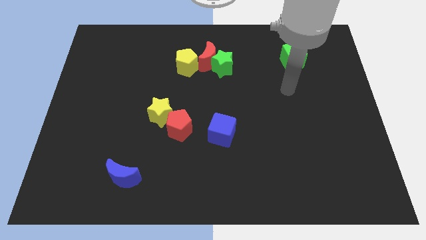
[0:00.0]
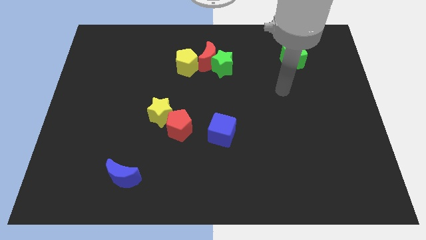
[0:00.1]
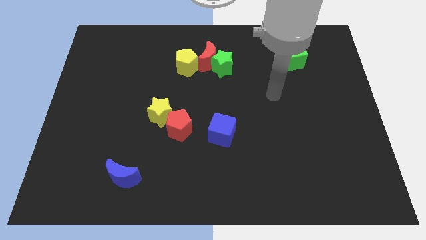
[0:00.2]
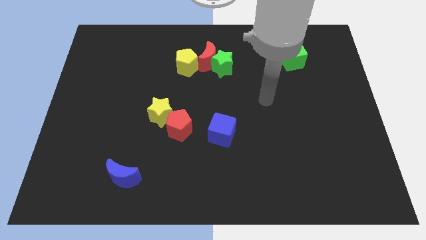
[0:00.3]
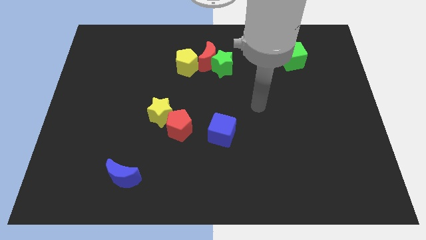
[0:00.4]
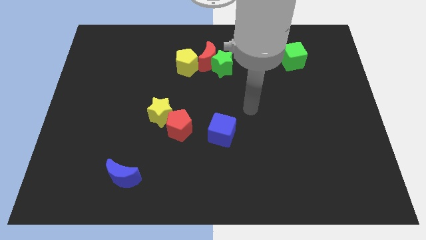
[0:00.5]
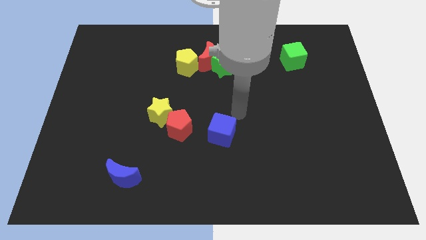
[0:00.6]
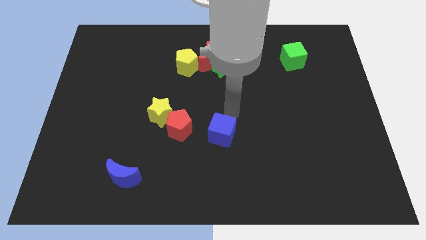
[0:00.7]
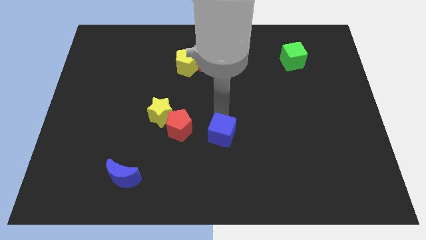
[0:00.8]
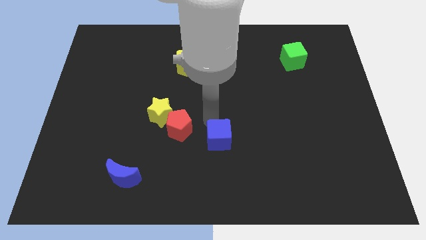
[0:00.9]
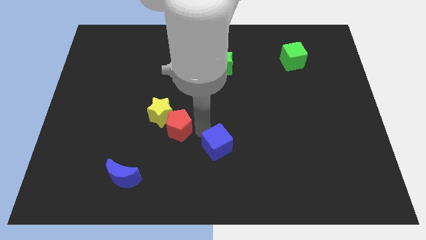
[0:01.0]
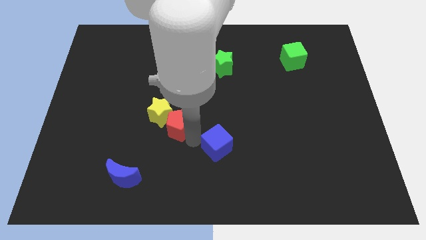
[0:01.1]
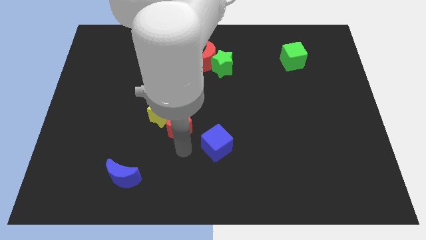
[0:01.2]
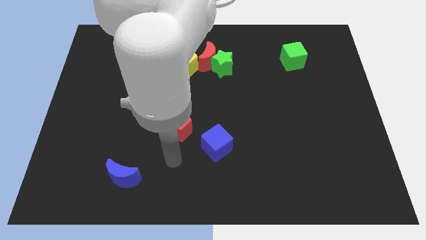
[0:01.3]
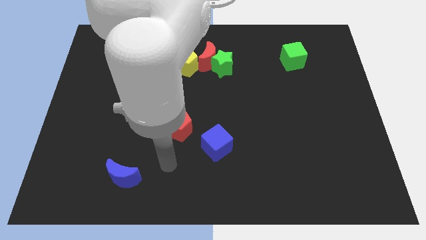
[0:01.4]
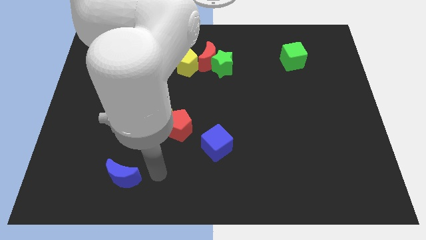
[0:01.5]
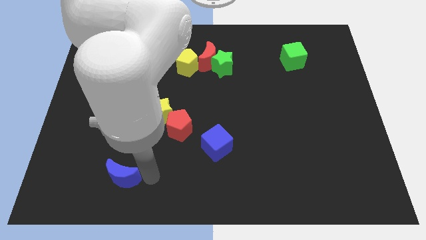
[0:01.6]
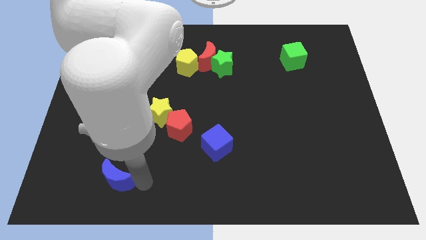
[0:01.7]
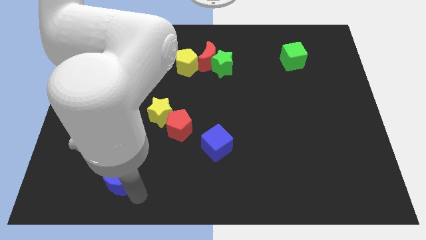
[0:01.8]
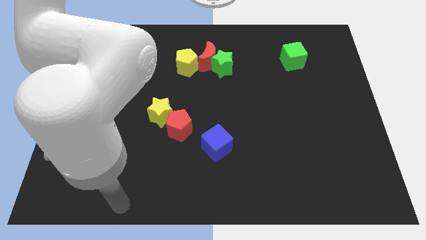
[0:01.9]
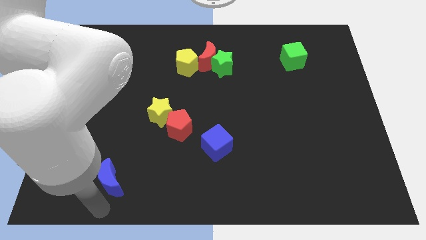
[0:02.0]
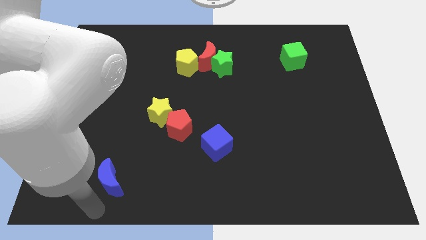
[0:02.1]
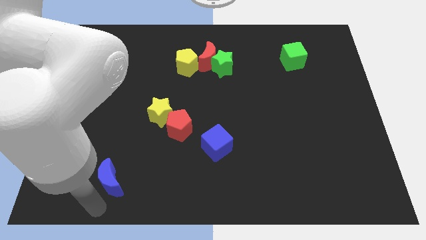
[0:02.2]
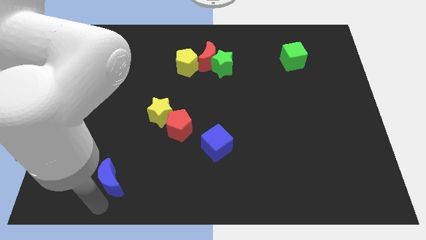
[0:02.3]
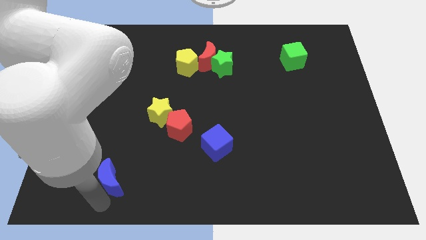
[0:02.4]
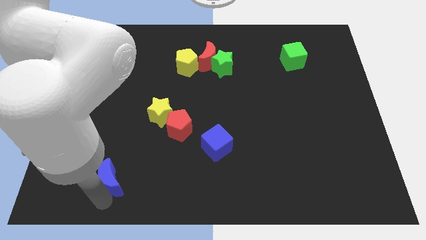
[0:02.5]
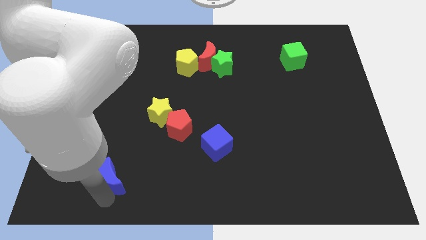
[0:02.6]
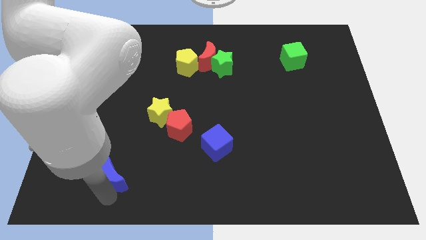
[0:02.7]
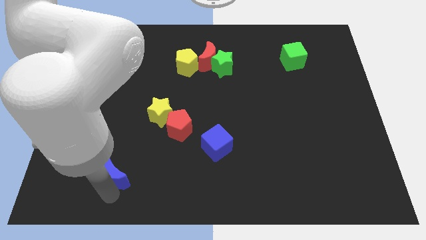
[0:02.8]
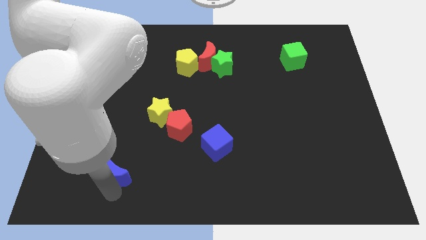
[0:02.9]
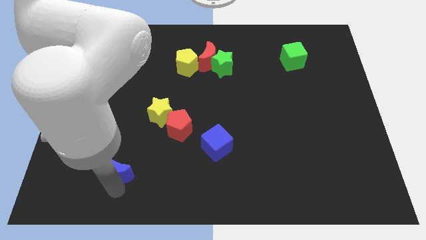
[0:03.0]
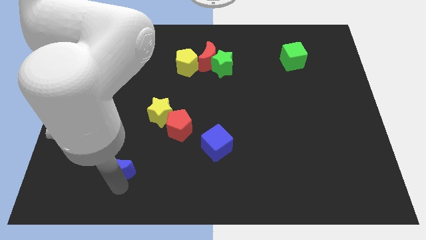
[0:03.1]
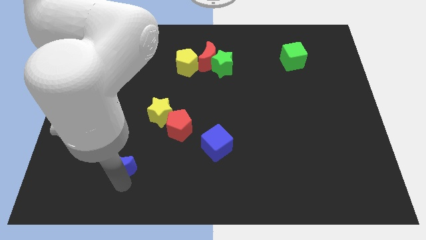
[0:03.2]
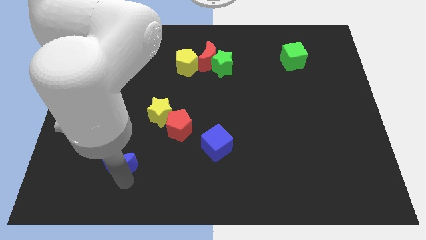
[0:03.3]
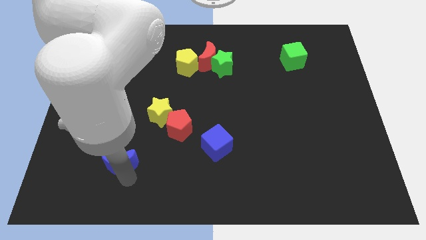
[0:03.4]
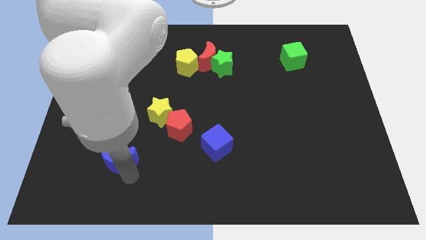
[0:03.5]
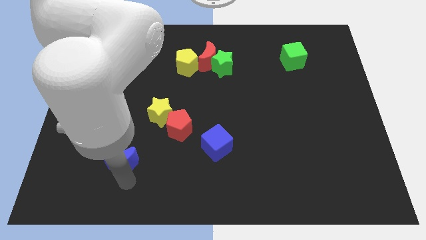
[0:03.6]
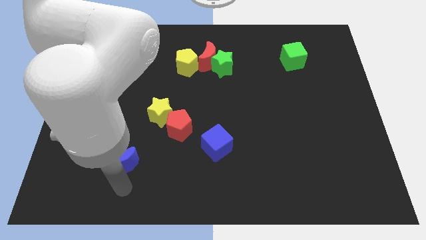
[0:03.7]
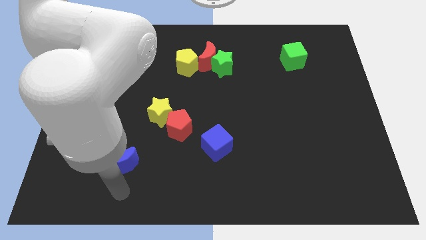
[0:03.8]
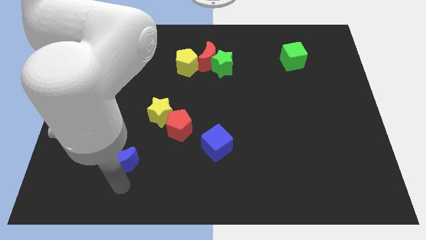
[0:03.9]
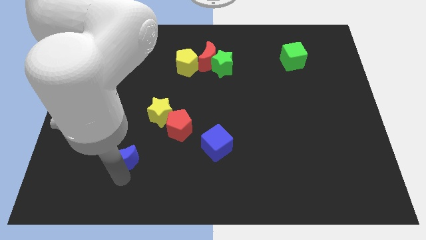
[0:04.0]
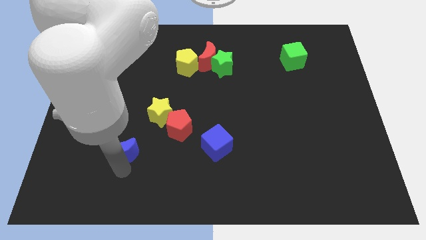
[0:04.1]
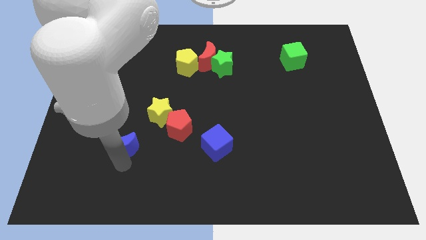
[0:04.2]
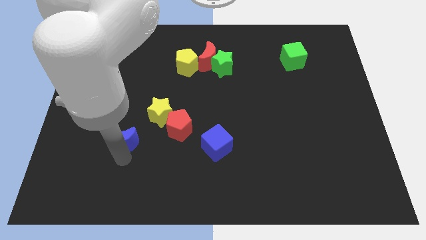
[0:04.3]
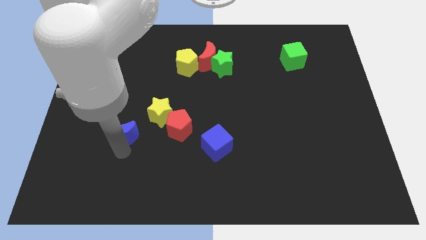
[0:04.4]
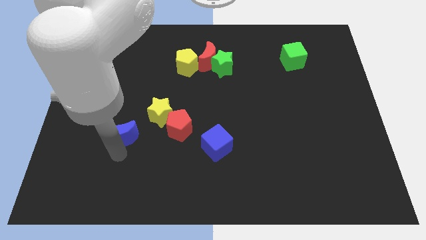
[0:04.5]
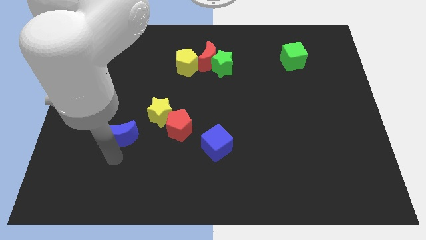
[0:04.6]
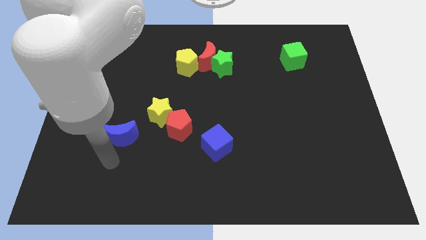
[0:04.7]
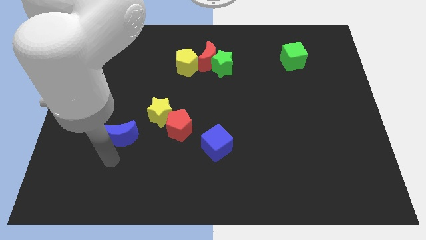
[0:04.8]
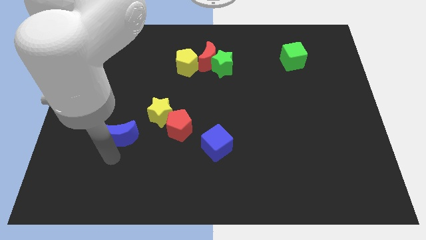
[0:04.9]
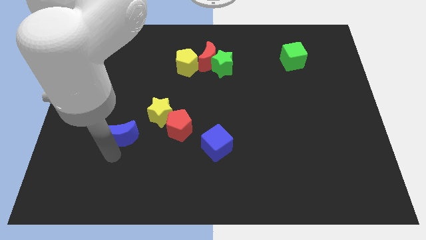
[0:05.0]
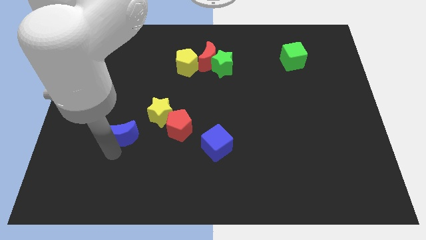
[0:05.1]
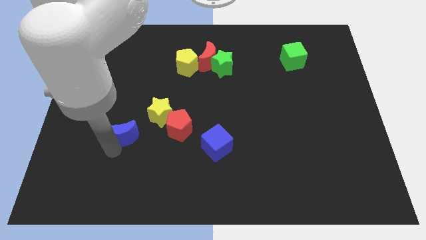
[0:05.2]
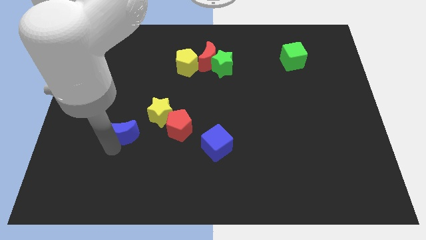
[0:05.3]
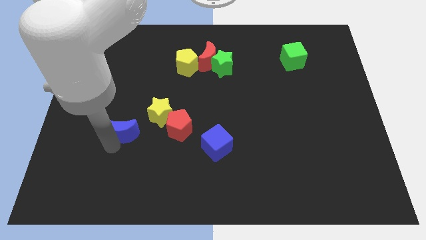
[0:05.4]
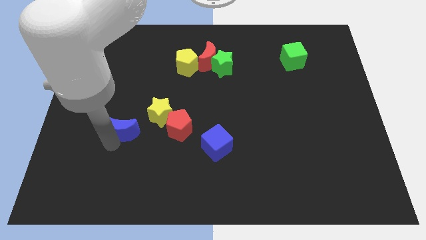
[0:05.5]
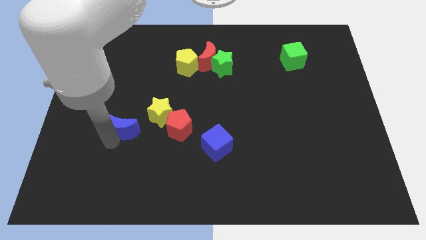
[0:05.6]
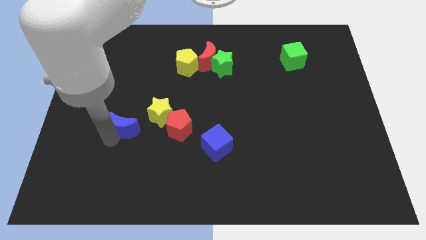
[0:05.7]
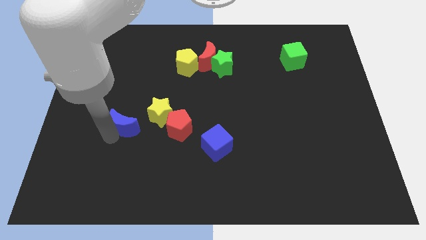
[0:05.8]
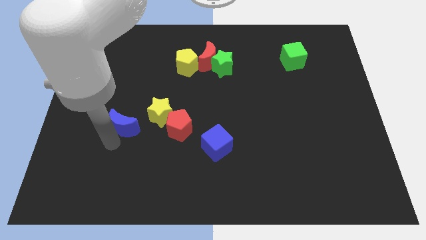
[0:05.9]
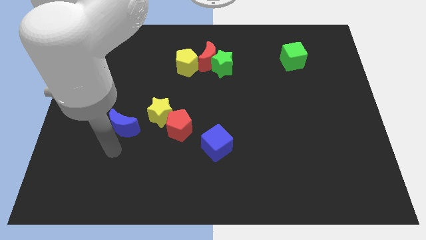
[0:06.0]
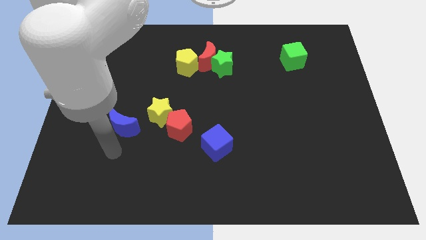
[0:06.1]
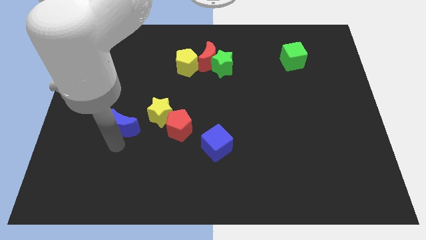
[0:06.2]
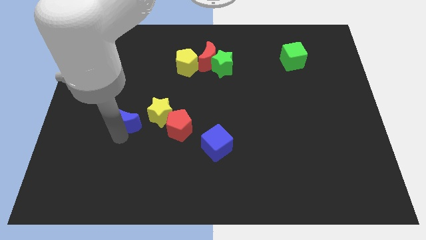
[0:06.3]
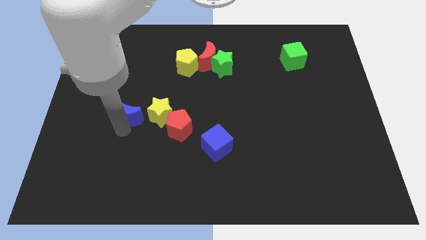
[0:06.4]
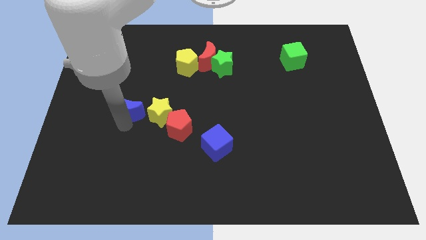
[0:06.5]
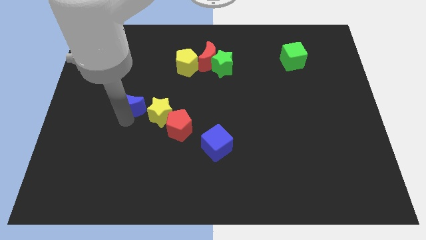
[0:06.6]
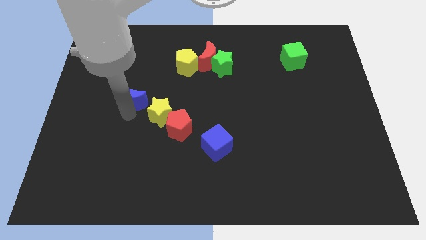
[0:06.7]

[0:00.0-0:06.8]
slide the blue moon up

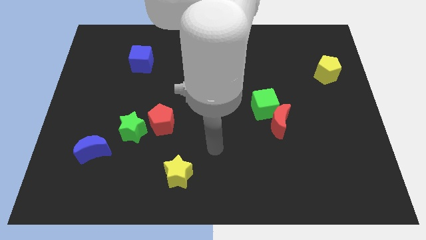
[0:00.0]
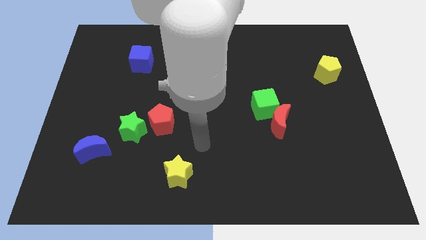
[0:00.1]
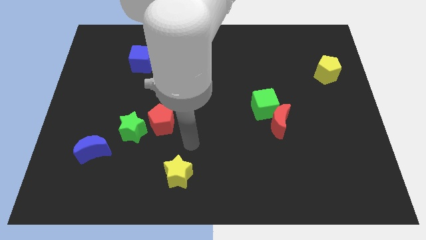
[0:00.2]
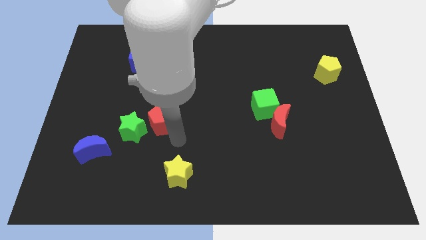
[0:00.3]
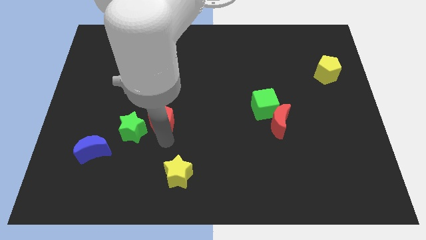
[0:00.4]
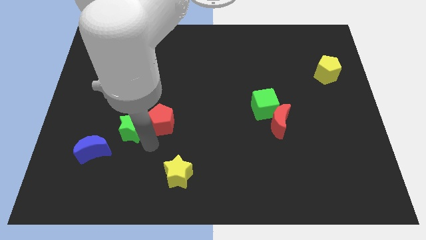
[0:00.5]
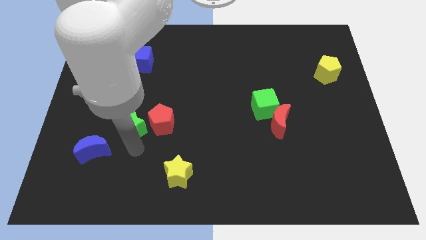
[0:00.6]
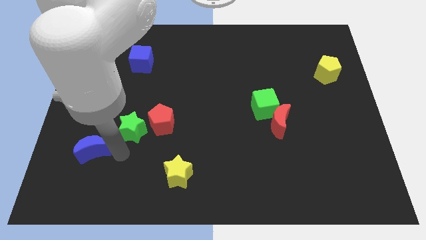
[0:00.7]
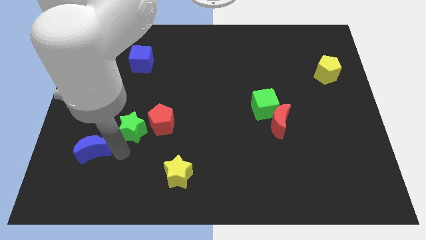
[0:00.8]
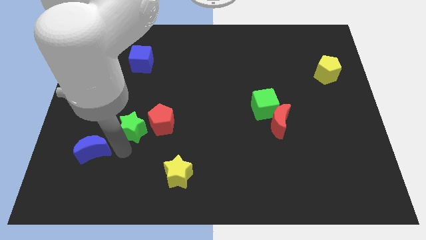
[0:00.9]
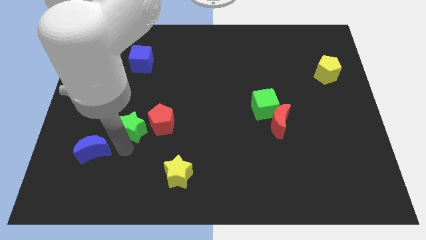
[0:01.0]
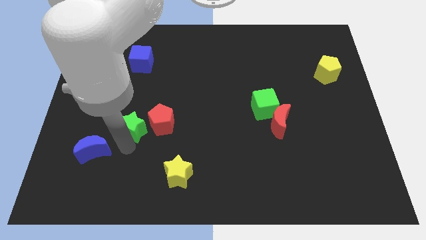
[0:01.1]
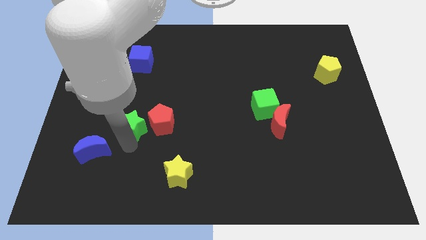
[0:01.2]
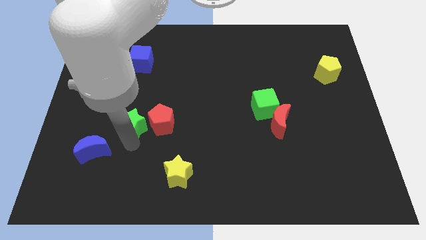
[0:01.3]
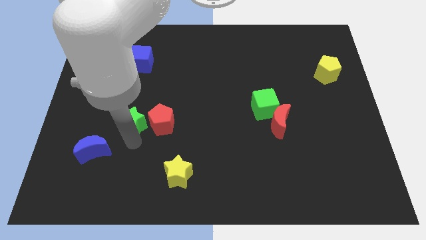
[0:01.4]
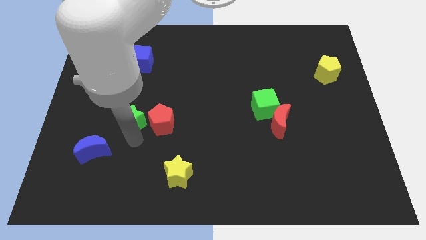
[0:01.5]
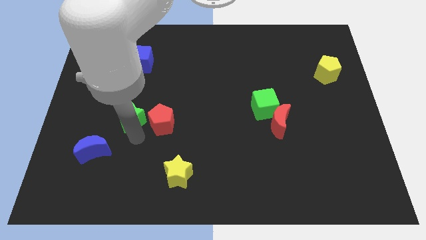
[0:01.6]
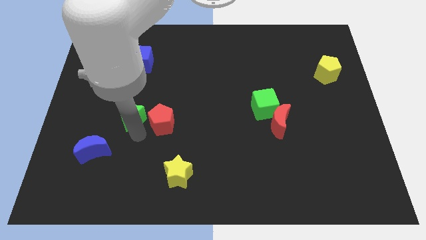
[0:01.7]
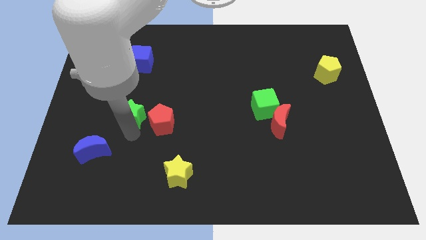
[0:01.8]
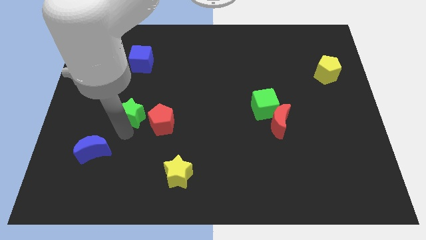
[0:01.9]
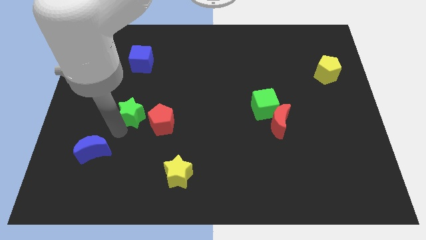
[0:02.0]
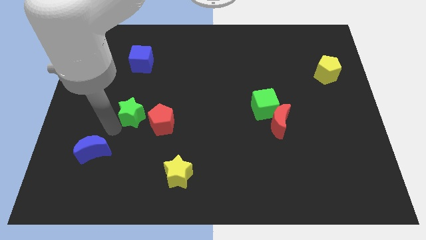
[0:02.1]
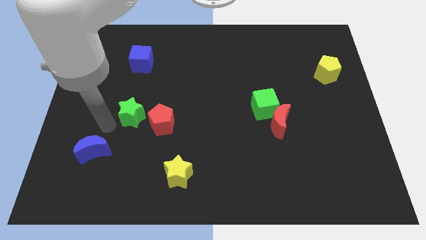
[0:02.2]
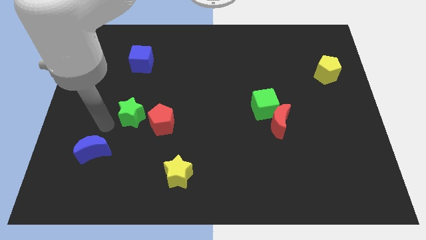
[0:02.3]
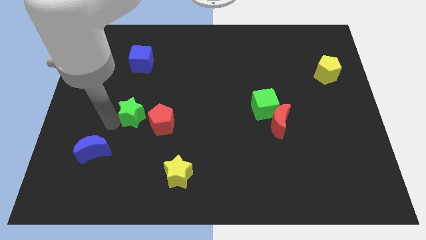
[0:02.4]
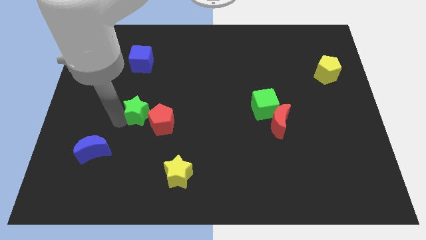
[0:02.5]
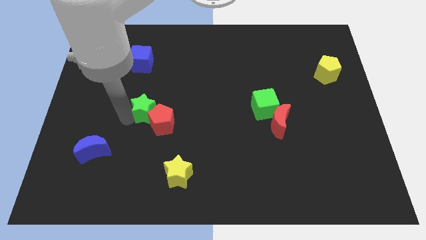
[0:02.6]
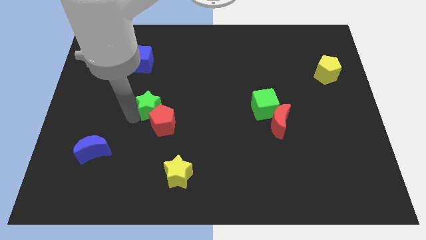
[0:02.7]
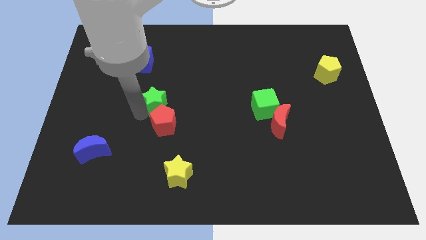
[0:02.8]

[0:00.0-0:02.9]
push the green star a bit up and then right
